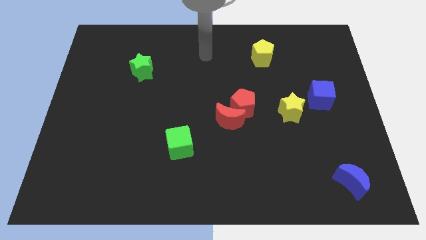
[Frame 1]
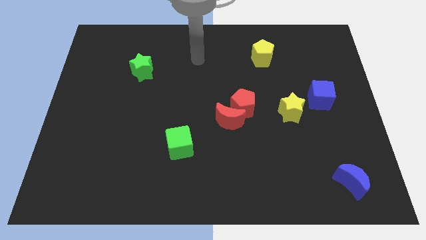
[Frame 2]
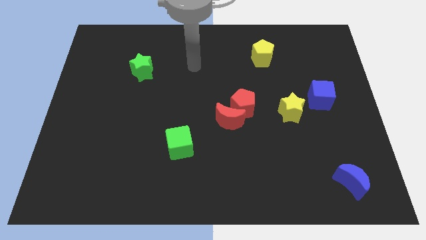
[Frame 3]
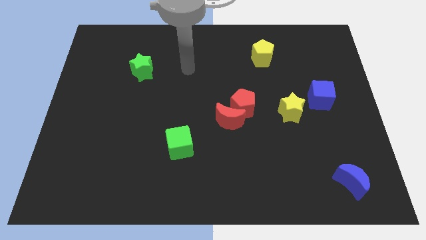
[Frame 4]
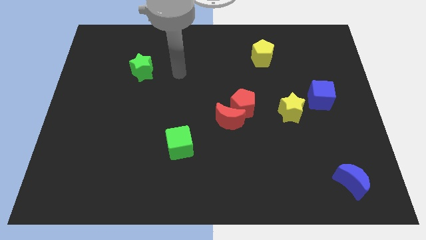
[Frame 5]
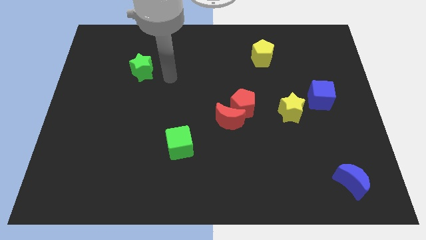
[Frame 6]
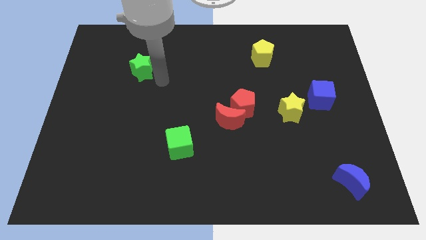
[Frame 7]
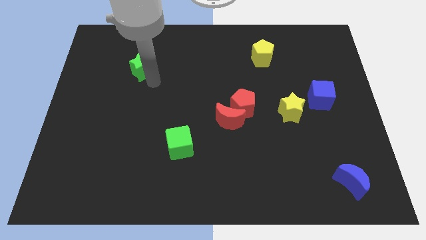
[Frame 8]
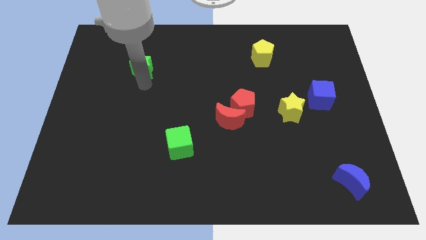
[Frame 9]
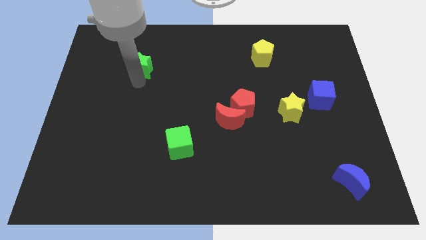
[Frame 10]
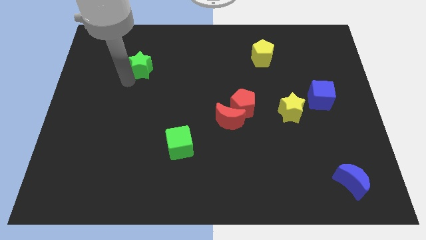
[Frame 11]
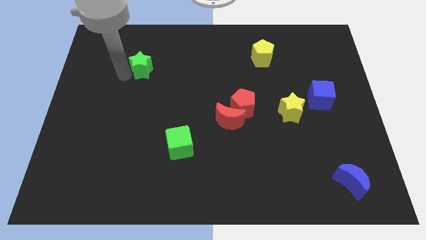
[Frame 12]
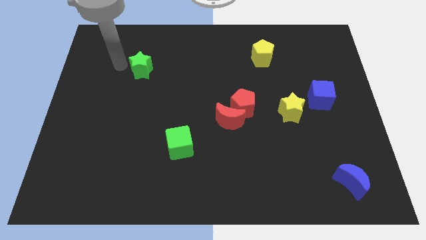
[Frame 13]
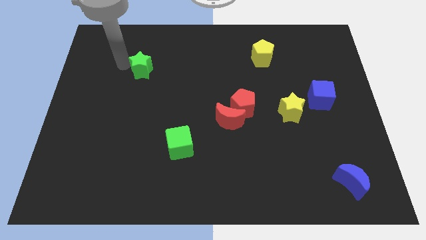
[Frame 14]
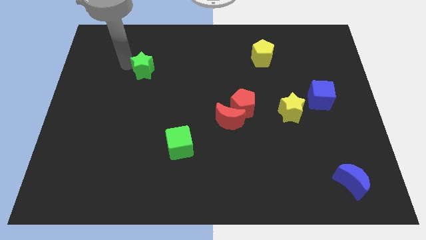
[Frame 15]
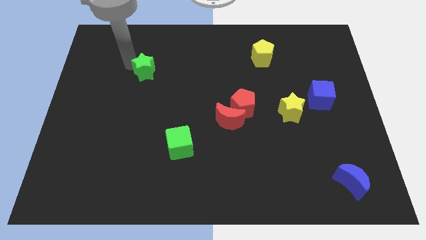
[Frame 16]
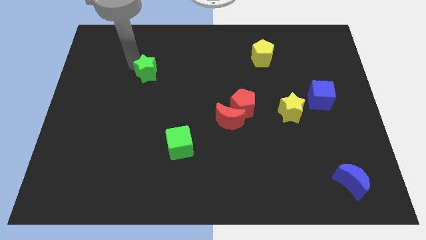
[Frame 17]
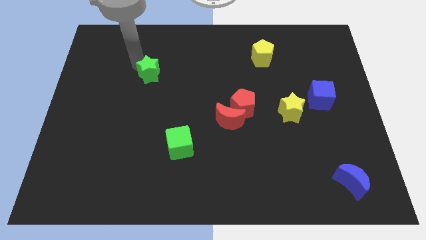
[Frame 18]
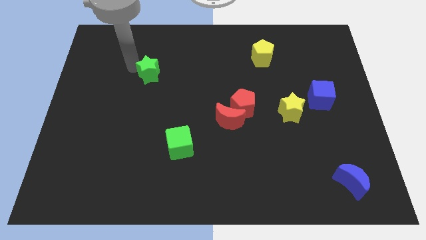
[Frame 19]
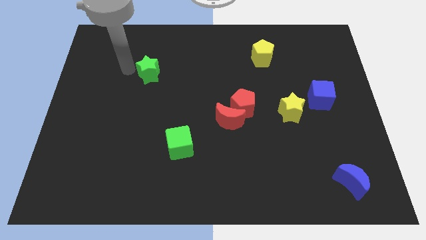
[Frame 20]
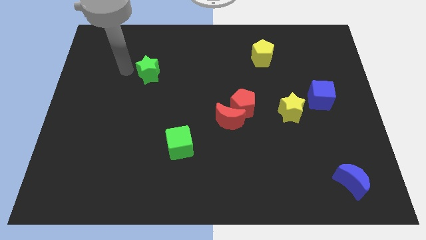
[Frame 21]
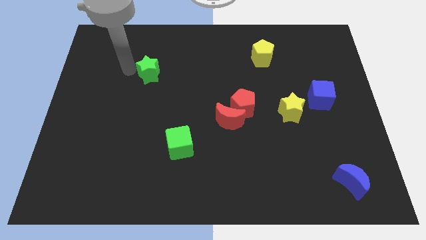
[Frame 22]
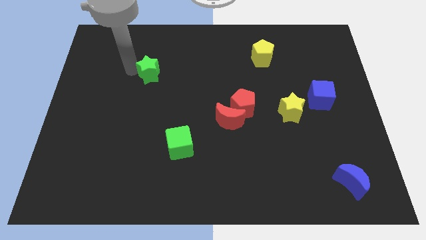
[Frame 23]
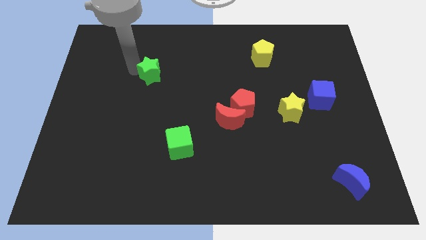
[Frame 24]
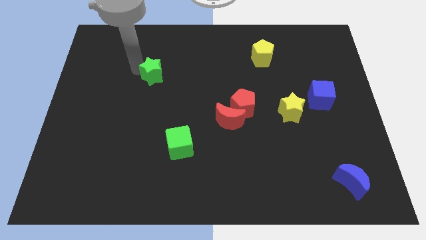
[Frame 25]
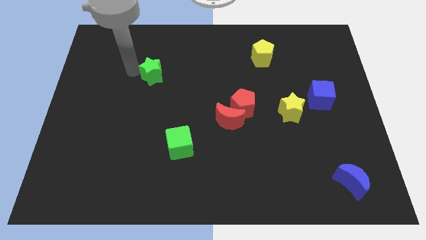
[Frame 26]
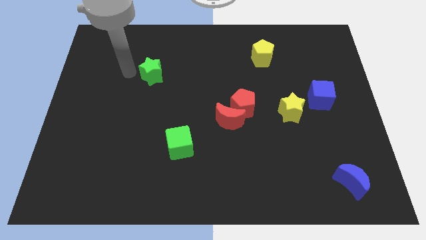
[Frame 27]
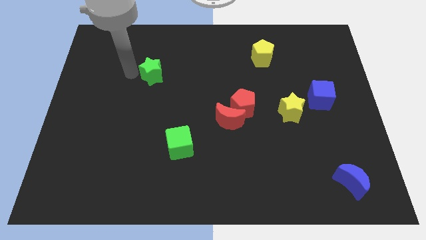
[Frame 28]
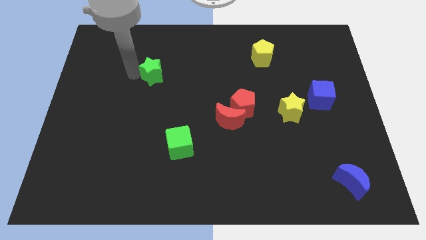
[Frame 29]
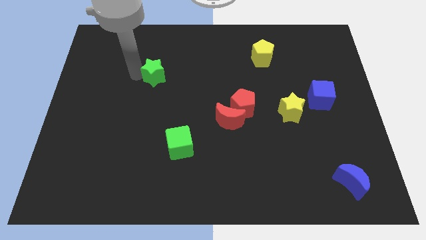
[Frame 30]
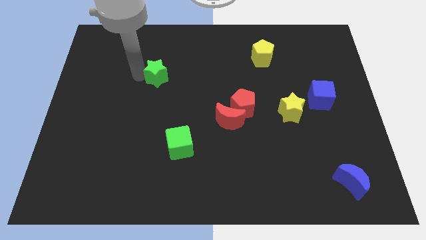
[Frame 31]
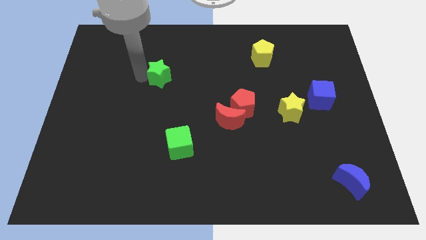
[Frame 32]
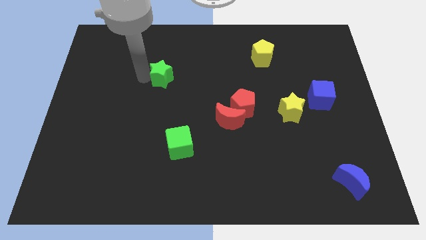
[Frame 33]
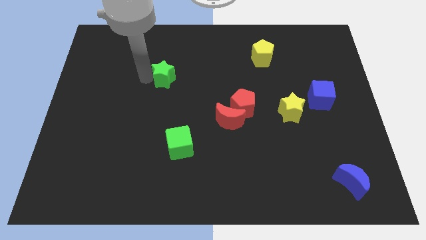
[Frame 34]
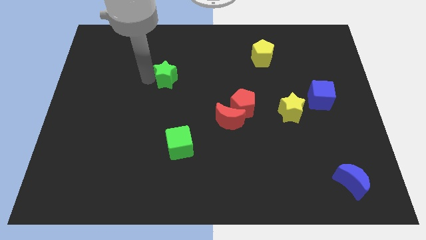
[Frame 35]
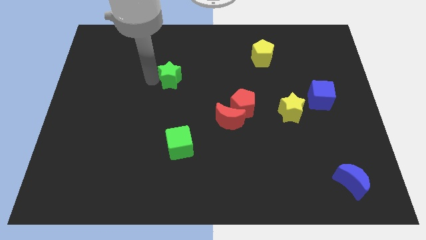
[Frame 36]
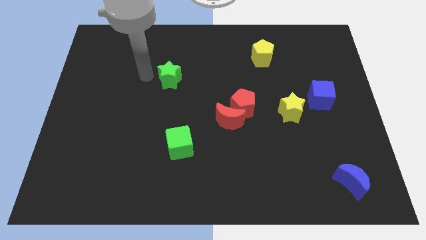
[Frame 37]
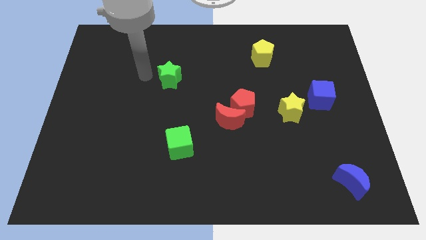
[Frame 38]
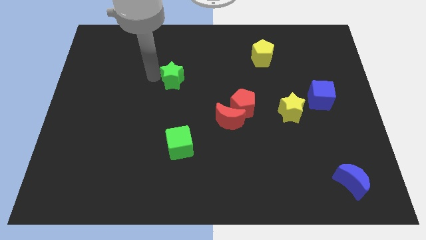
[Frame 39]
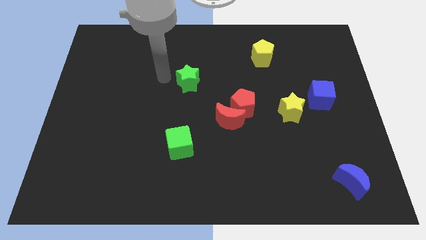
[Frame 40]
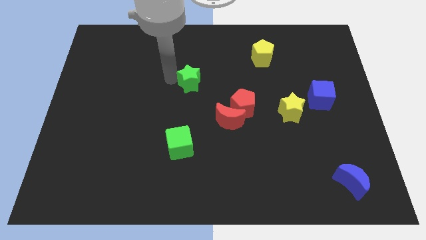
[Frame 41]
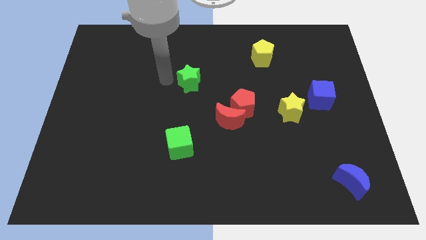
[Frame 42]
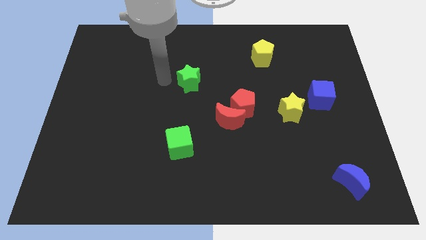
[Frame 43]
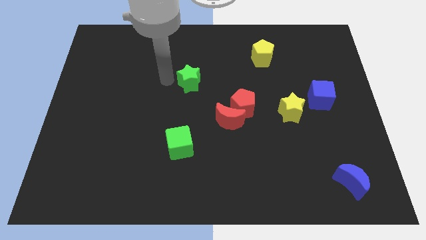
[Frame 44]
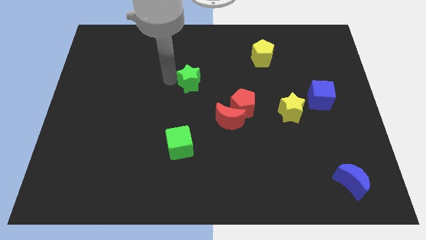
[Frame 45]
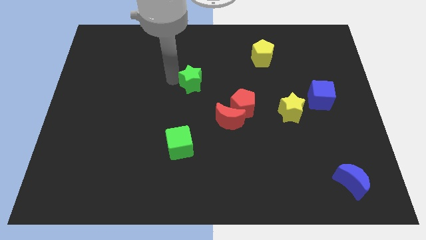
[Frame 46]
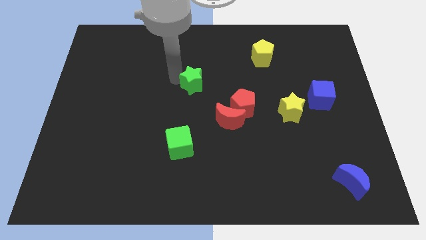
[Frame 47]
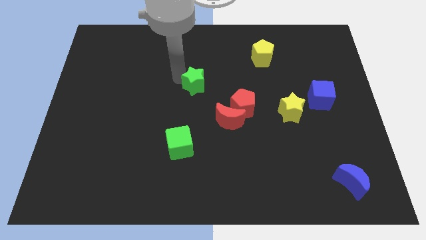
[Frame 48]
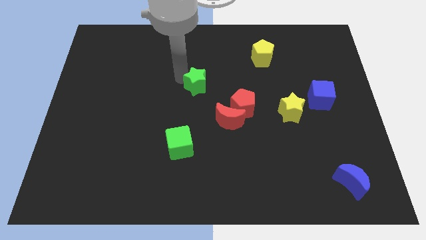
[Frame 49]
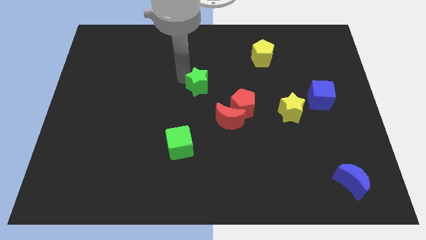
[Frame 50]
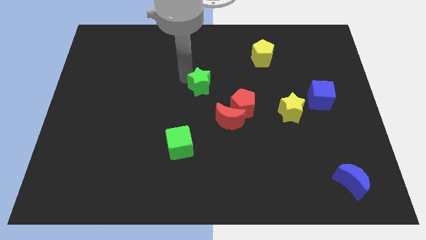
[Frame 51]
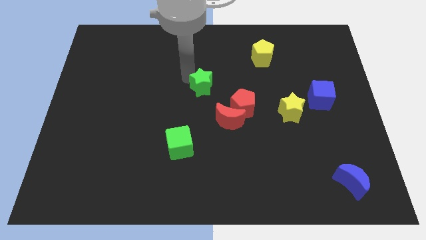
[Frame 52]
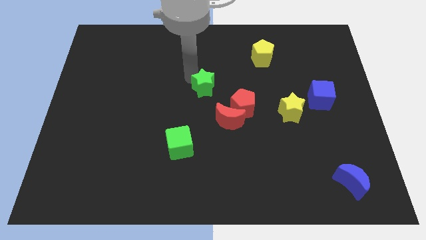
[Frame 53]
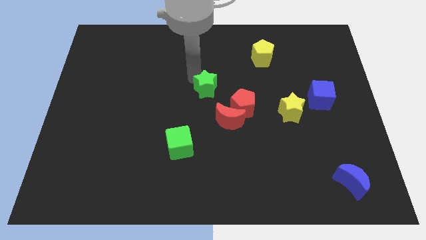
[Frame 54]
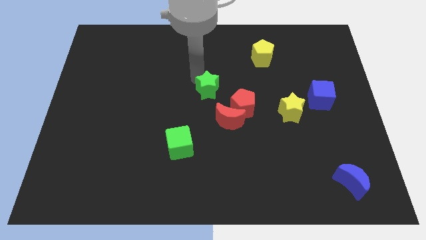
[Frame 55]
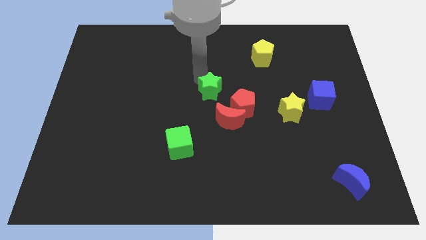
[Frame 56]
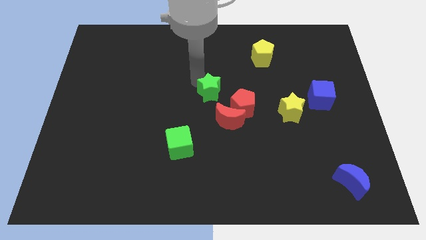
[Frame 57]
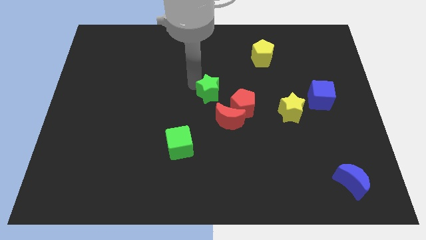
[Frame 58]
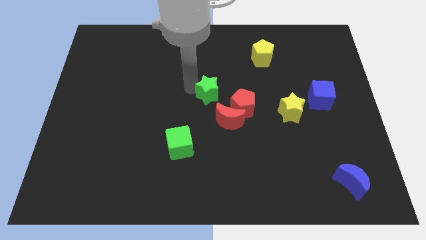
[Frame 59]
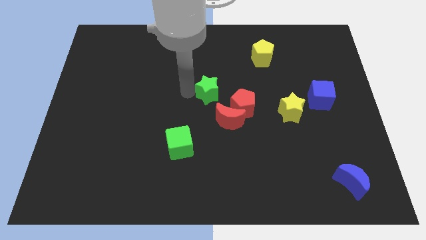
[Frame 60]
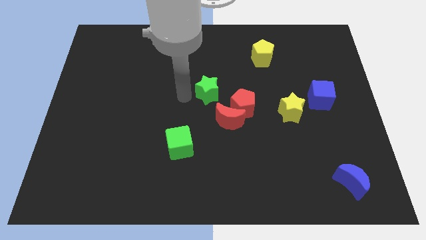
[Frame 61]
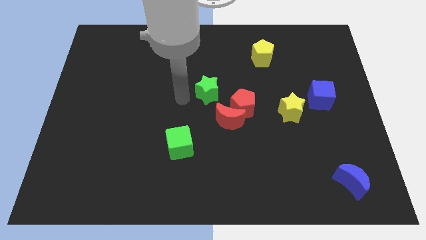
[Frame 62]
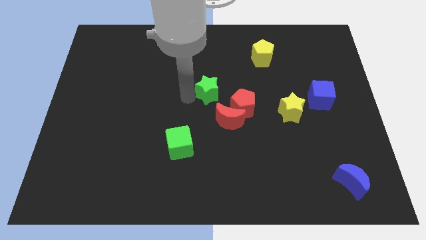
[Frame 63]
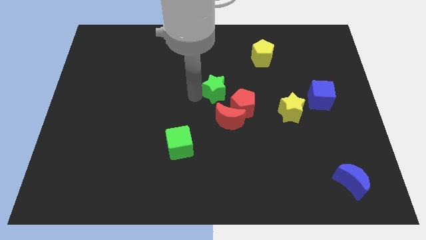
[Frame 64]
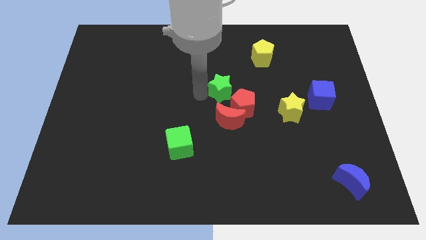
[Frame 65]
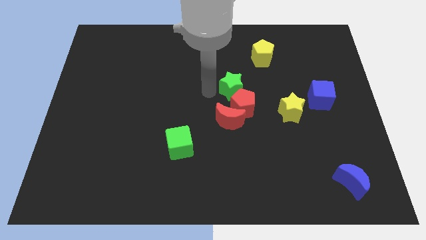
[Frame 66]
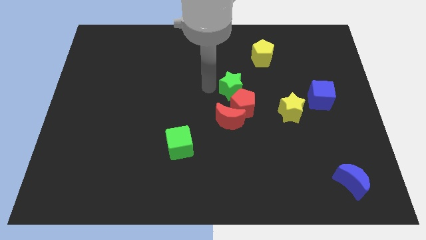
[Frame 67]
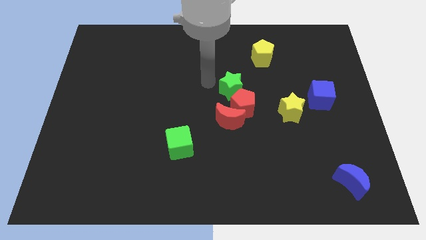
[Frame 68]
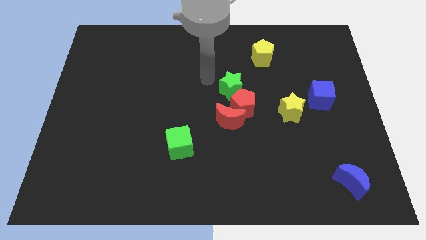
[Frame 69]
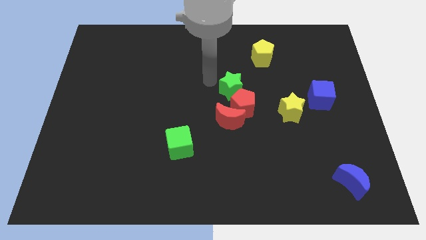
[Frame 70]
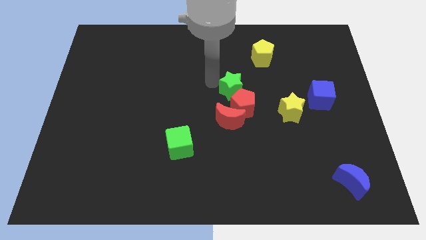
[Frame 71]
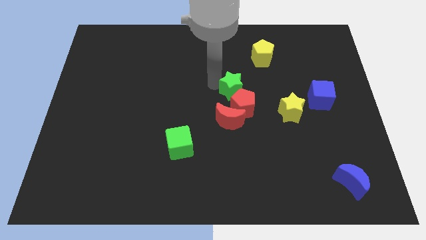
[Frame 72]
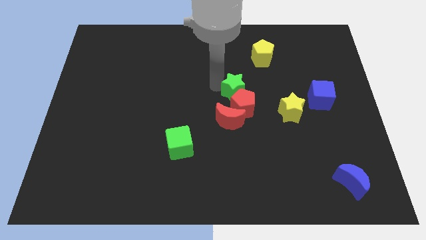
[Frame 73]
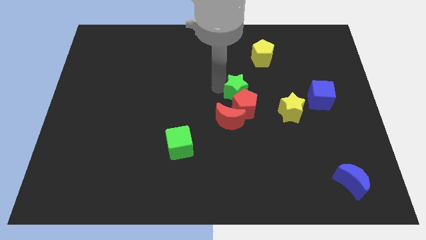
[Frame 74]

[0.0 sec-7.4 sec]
move the green star to the top right side of the red moon
